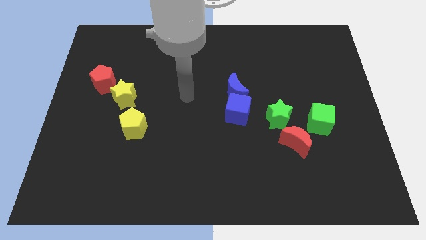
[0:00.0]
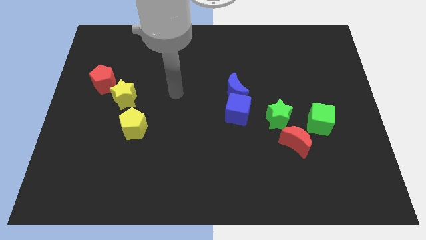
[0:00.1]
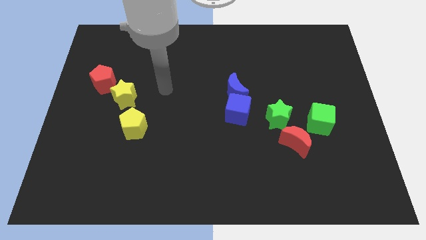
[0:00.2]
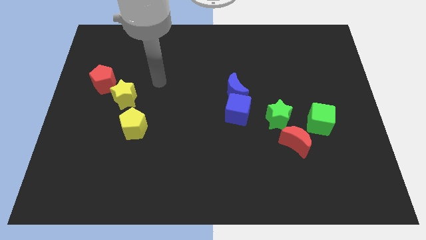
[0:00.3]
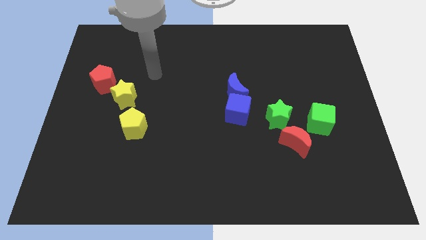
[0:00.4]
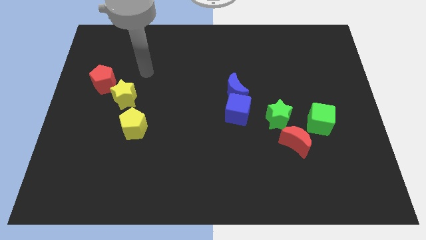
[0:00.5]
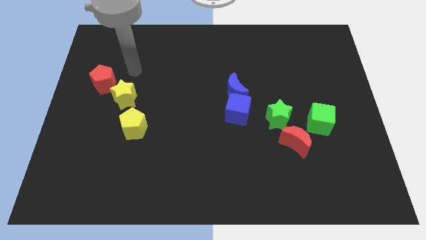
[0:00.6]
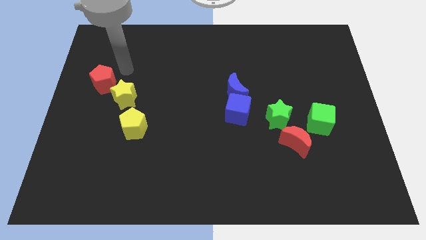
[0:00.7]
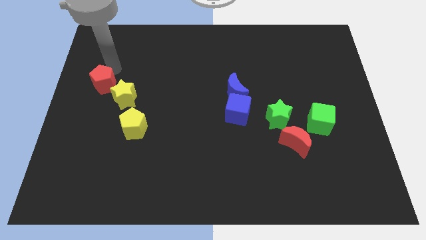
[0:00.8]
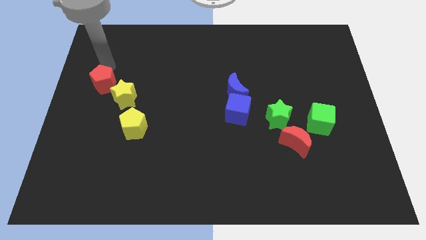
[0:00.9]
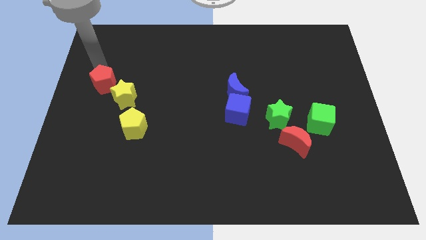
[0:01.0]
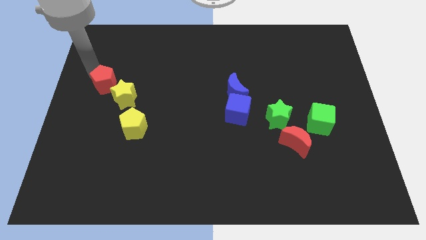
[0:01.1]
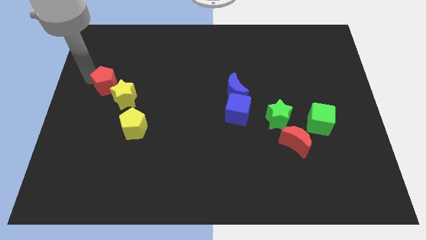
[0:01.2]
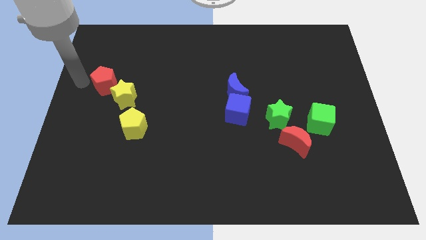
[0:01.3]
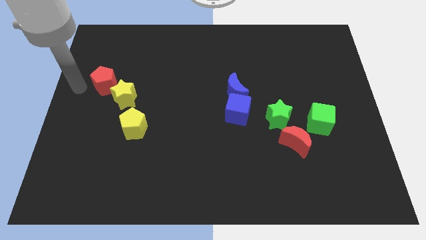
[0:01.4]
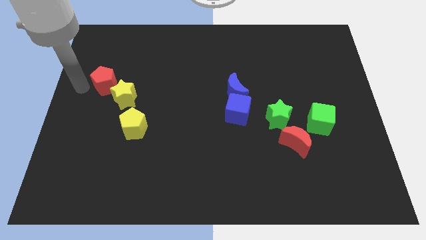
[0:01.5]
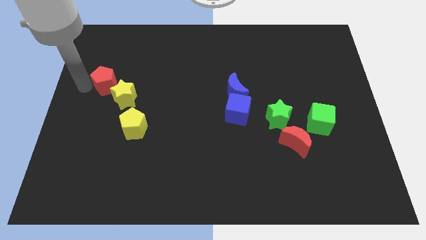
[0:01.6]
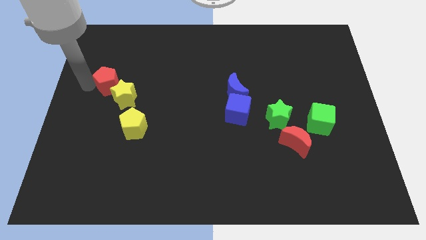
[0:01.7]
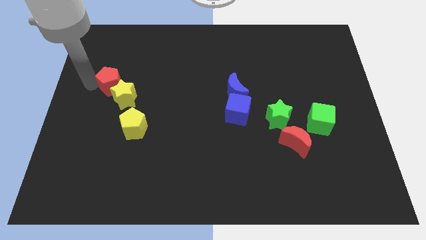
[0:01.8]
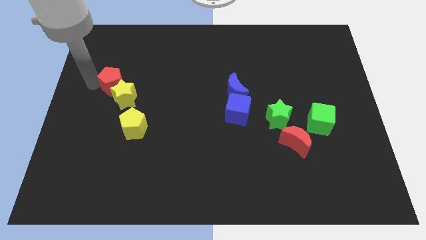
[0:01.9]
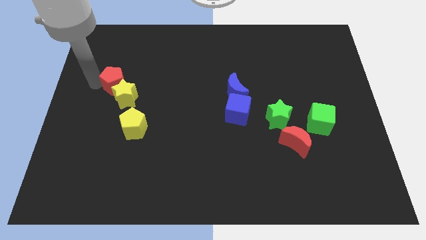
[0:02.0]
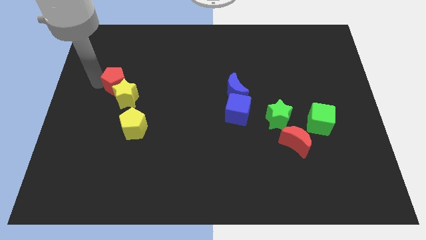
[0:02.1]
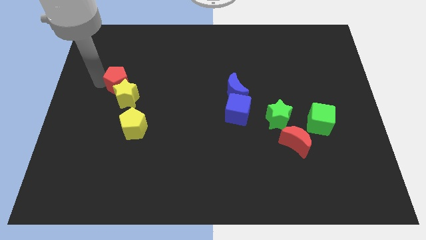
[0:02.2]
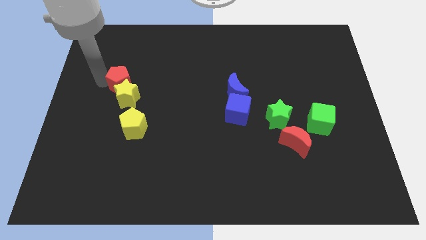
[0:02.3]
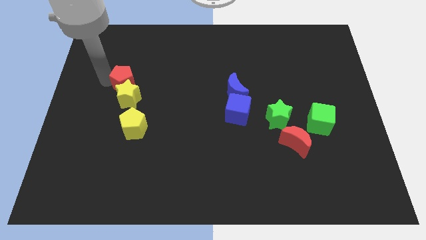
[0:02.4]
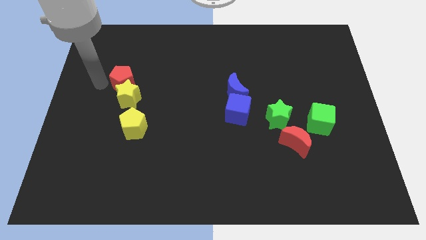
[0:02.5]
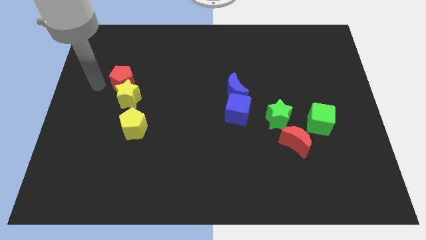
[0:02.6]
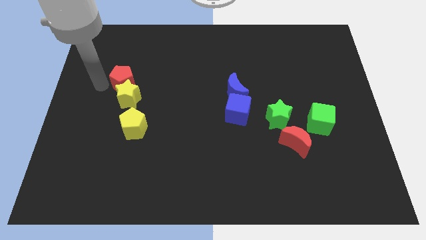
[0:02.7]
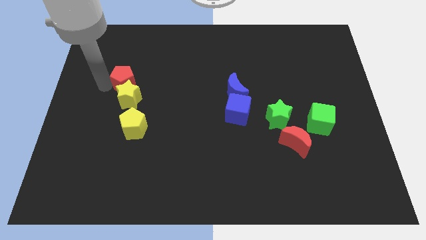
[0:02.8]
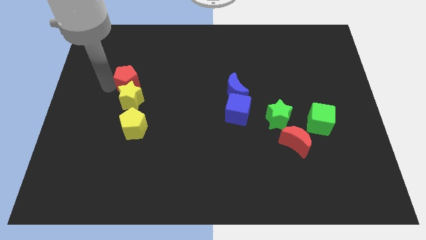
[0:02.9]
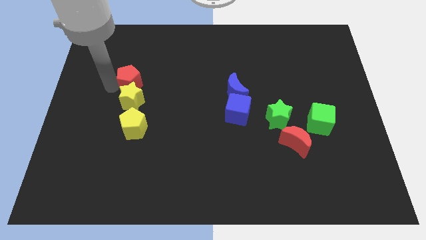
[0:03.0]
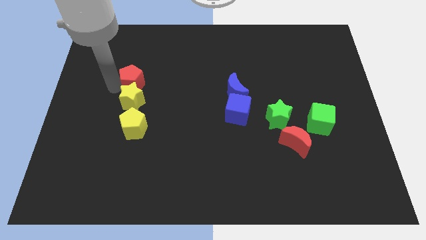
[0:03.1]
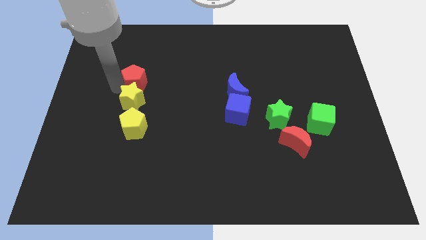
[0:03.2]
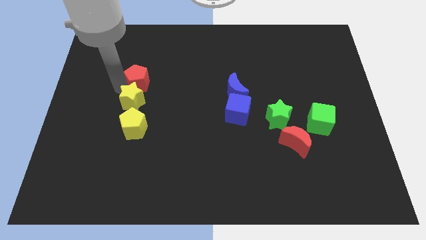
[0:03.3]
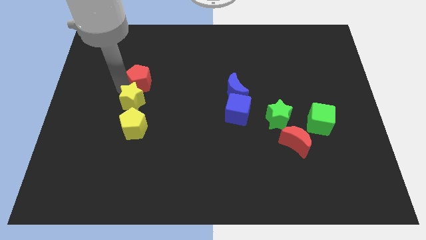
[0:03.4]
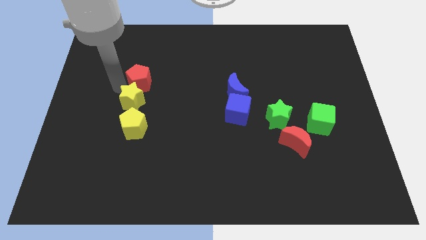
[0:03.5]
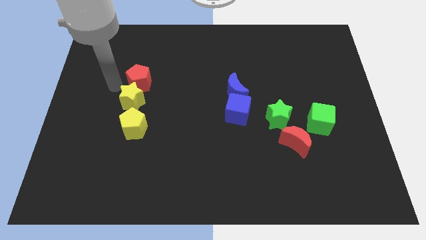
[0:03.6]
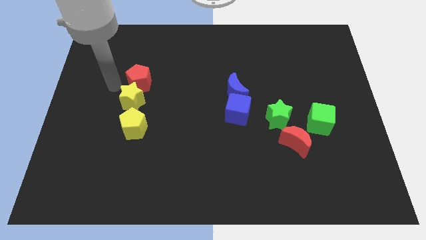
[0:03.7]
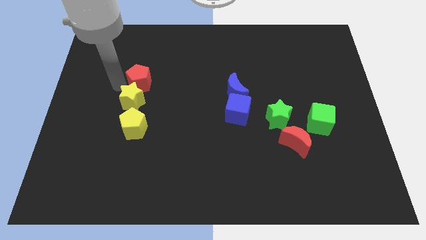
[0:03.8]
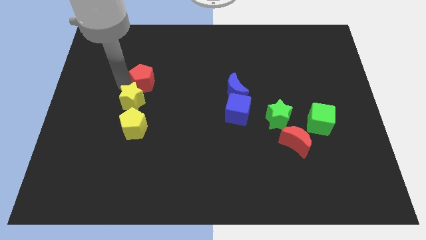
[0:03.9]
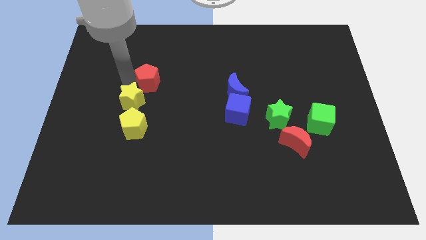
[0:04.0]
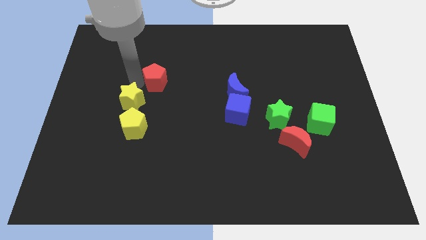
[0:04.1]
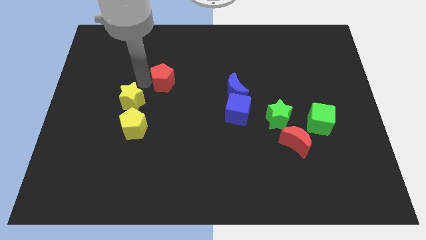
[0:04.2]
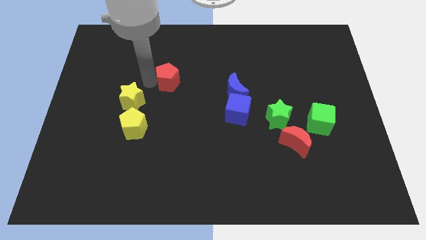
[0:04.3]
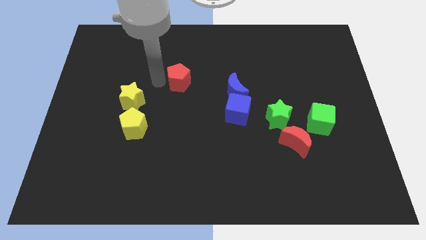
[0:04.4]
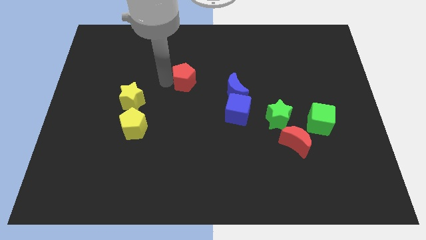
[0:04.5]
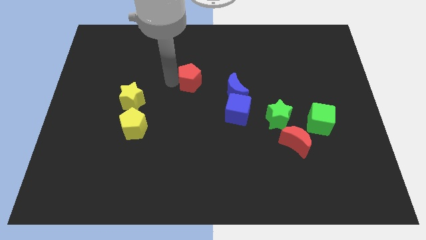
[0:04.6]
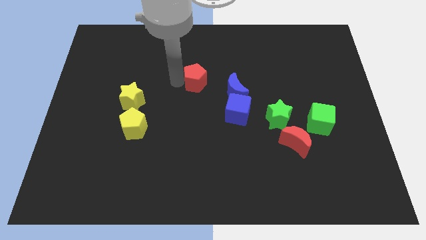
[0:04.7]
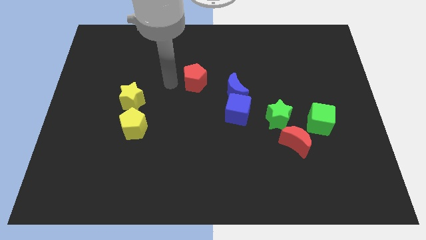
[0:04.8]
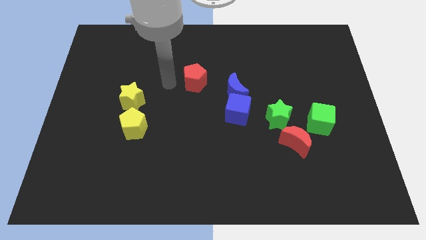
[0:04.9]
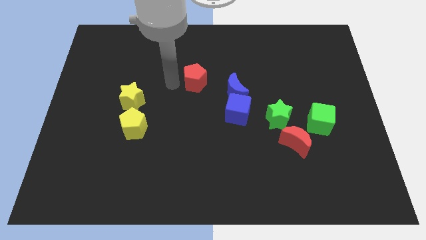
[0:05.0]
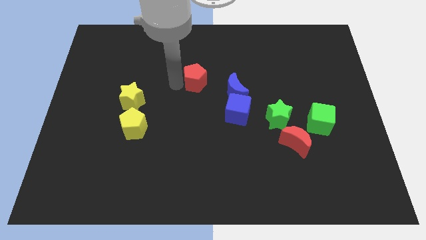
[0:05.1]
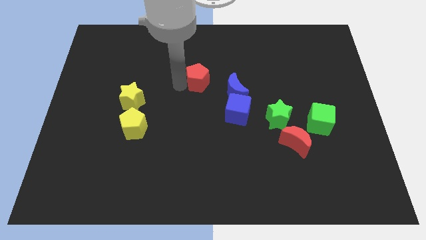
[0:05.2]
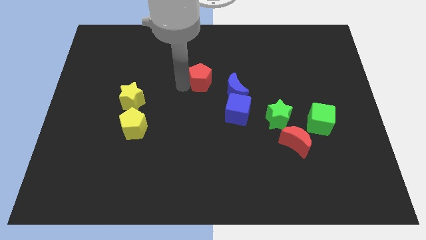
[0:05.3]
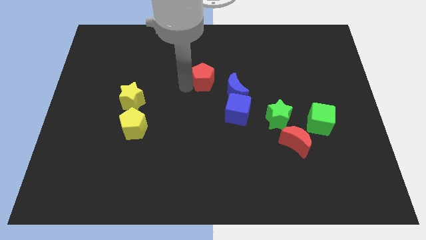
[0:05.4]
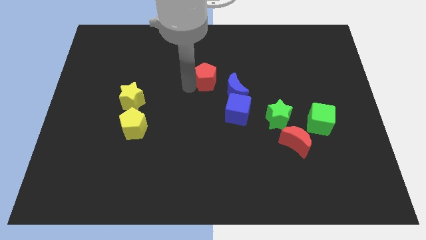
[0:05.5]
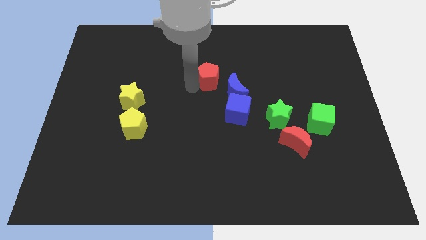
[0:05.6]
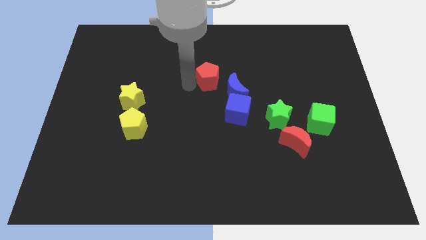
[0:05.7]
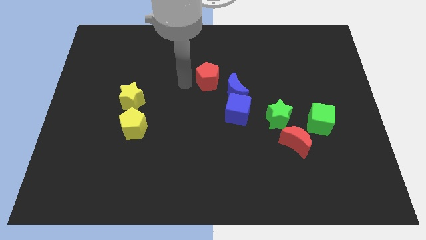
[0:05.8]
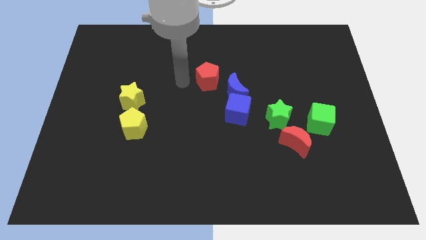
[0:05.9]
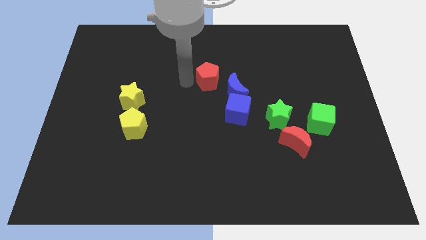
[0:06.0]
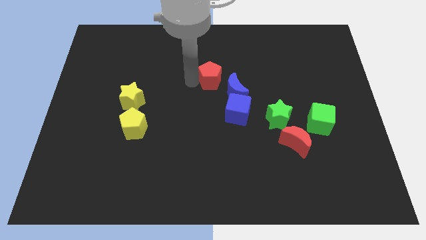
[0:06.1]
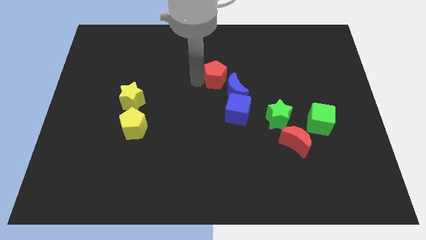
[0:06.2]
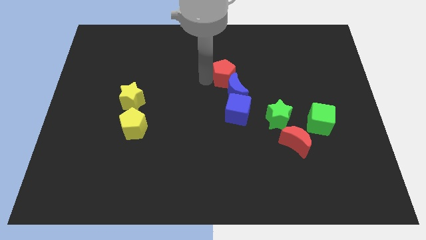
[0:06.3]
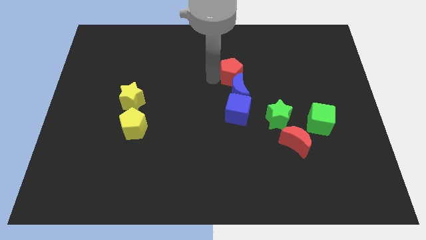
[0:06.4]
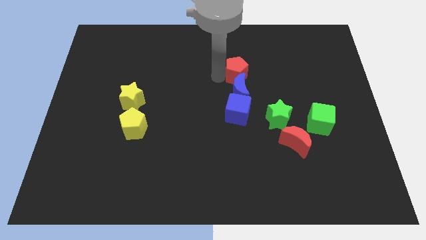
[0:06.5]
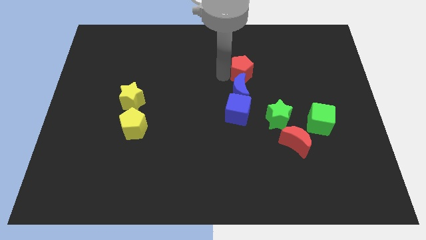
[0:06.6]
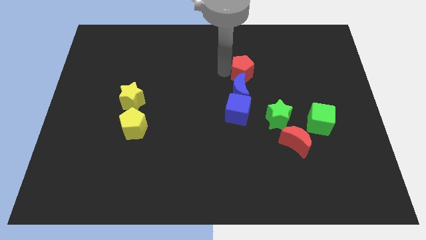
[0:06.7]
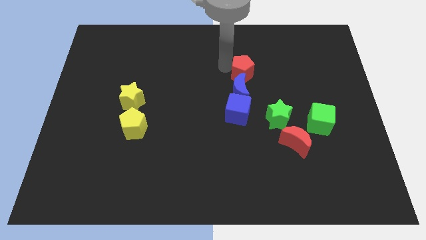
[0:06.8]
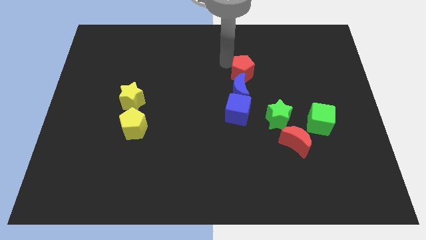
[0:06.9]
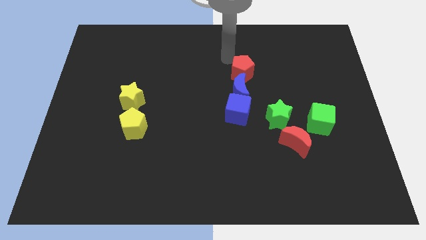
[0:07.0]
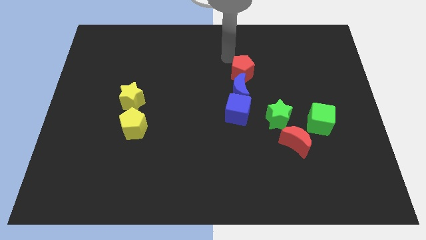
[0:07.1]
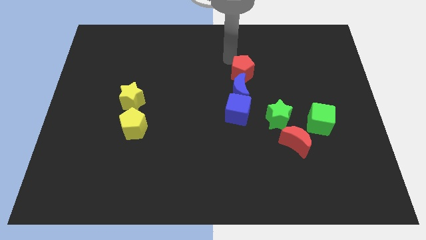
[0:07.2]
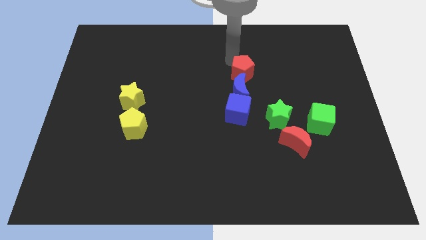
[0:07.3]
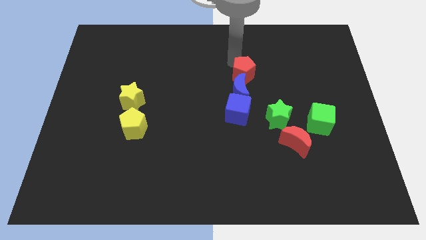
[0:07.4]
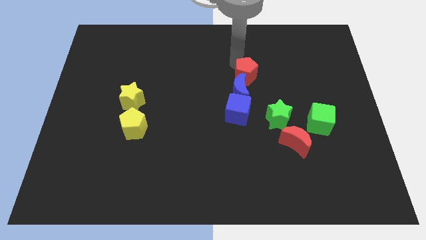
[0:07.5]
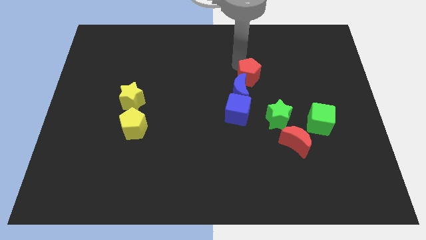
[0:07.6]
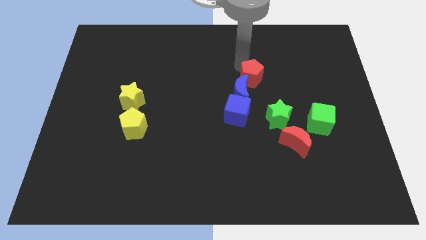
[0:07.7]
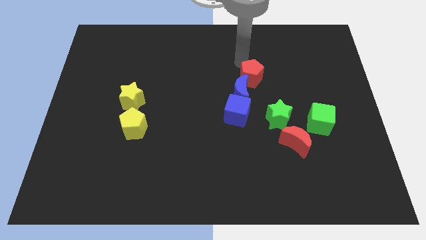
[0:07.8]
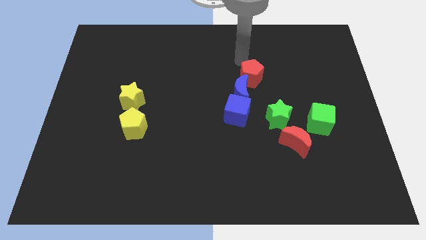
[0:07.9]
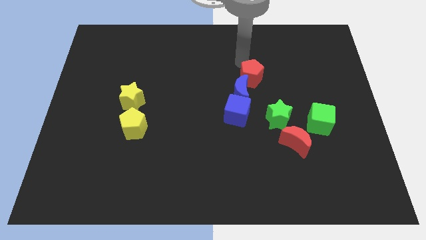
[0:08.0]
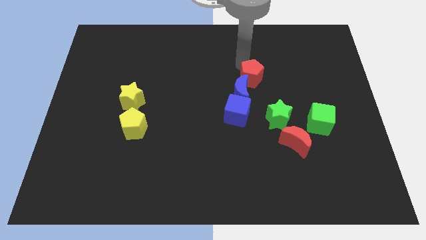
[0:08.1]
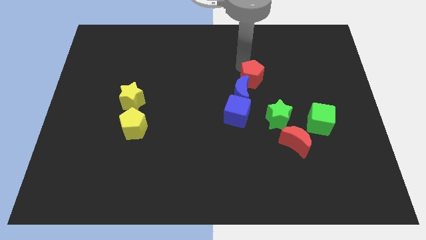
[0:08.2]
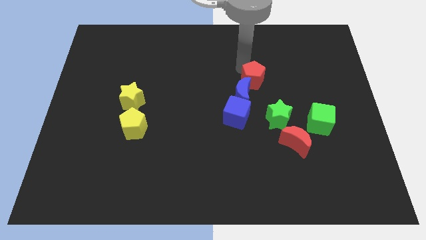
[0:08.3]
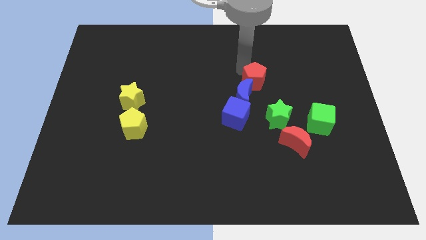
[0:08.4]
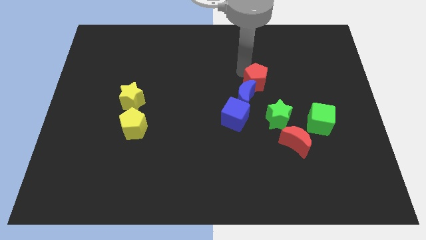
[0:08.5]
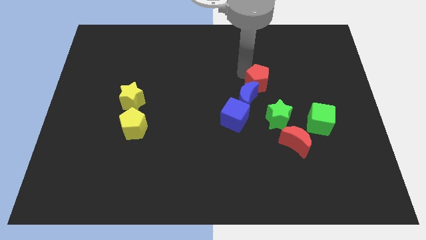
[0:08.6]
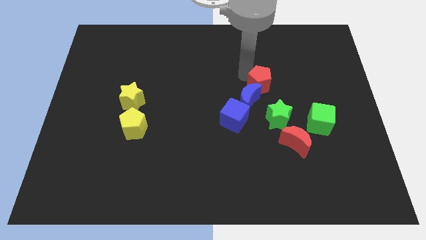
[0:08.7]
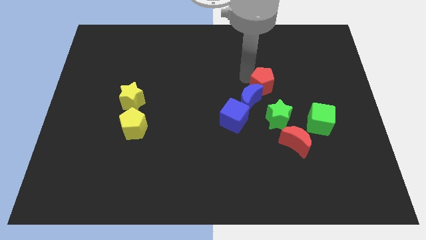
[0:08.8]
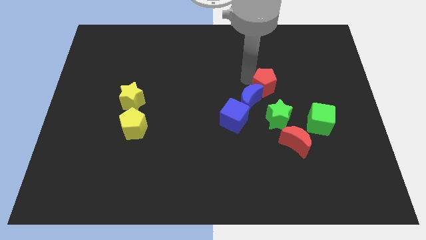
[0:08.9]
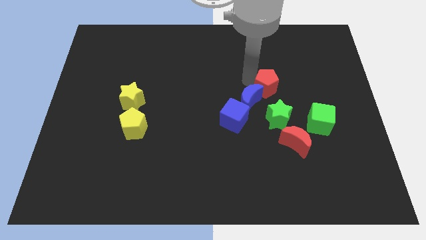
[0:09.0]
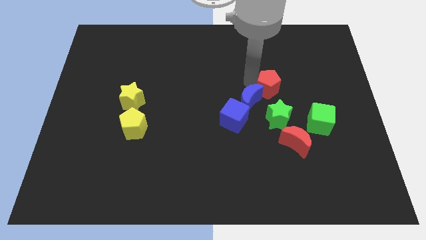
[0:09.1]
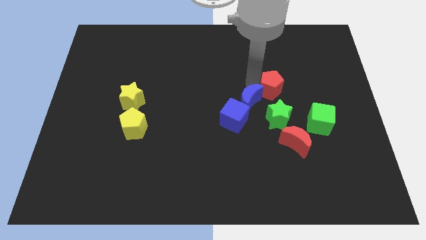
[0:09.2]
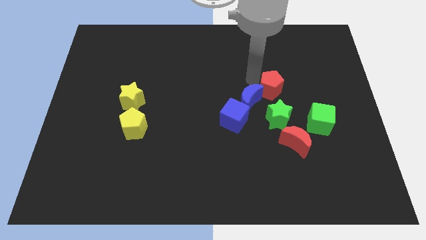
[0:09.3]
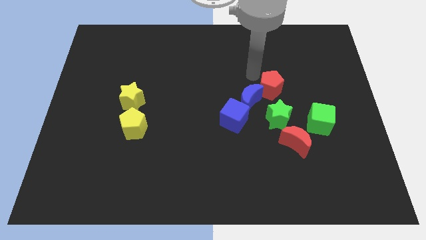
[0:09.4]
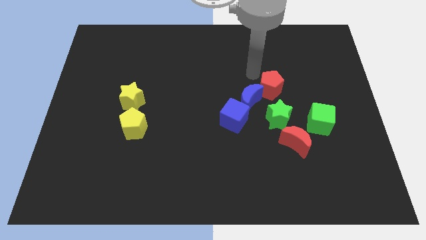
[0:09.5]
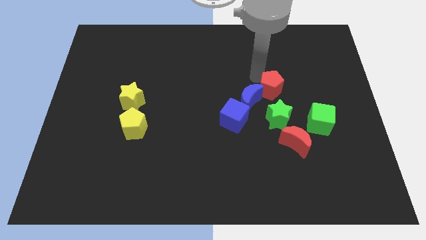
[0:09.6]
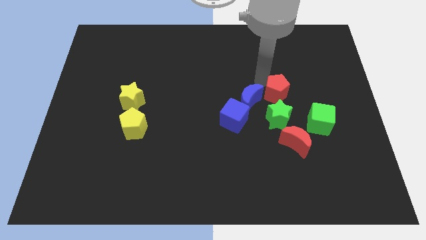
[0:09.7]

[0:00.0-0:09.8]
move the red pentagon above the red moon
